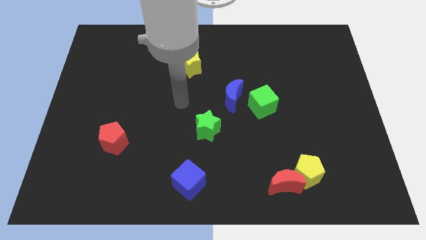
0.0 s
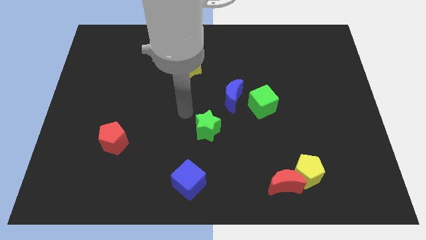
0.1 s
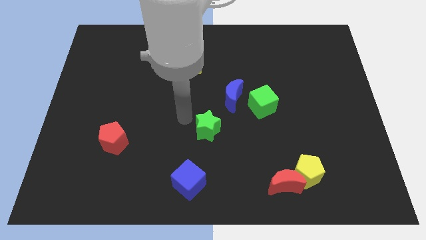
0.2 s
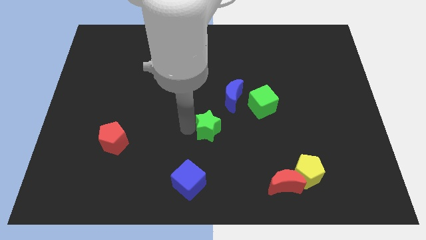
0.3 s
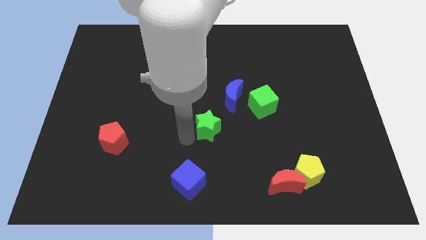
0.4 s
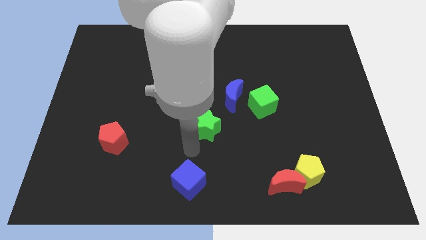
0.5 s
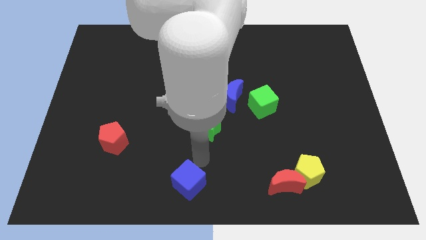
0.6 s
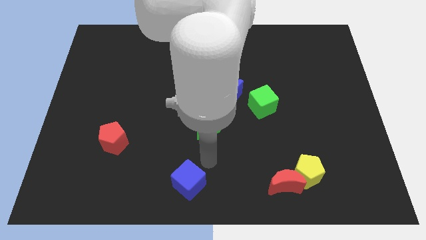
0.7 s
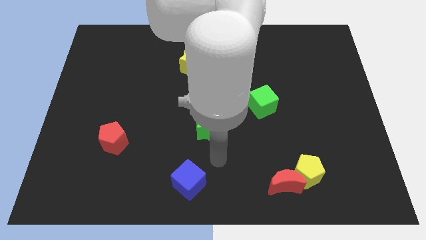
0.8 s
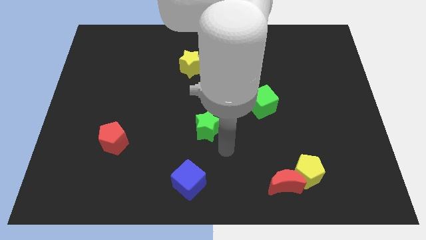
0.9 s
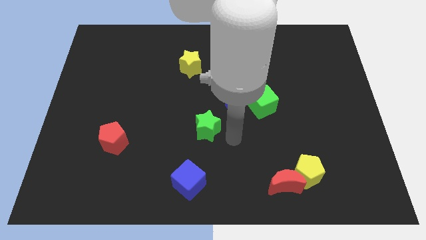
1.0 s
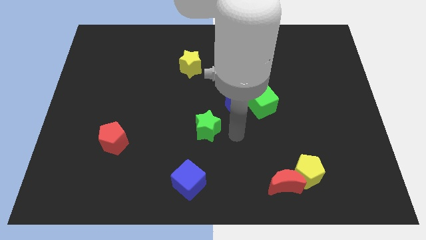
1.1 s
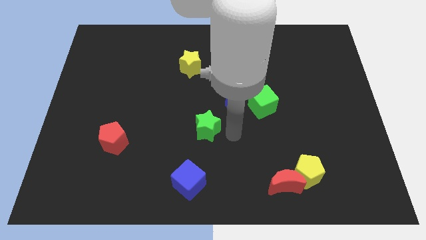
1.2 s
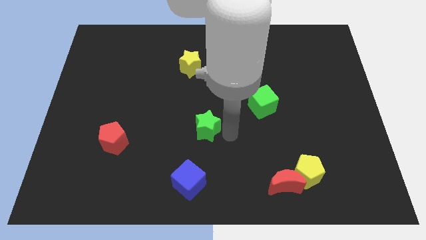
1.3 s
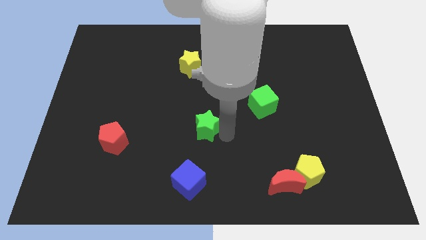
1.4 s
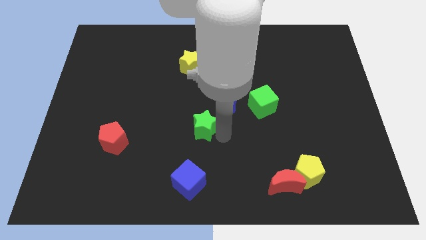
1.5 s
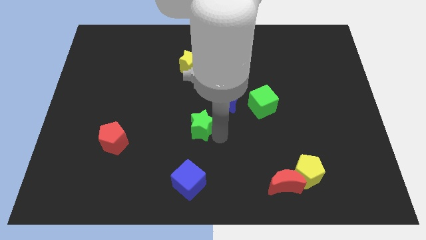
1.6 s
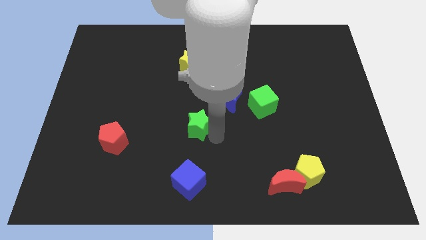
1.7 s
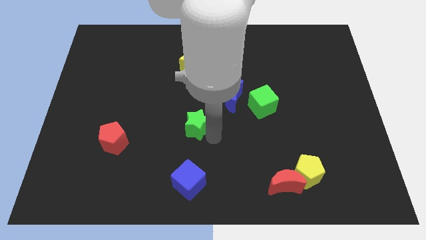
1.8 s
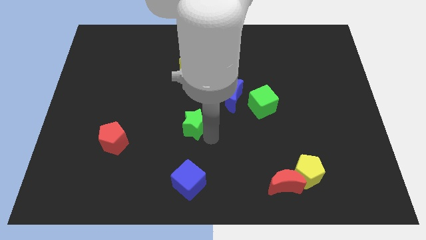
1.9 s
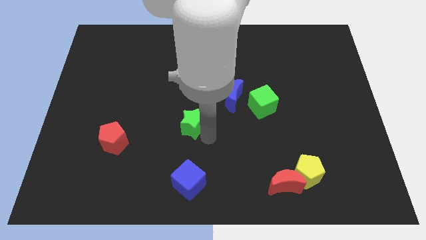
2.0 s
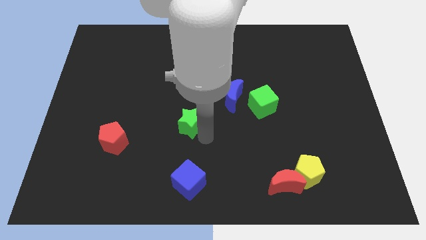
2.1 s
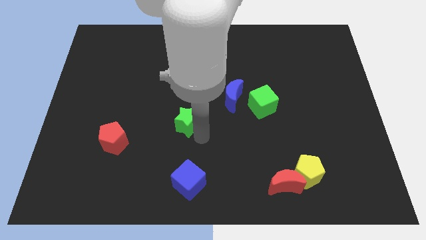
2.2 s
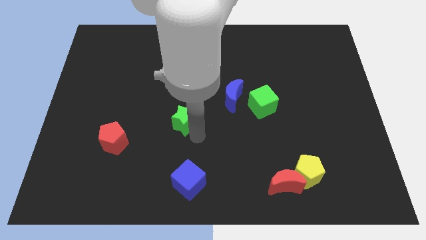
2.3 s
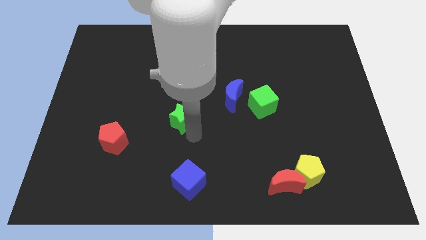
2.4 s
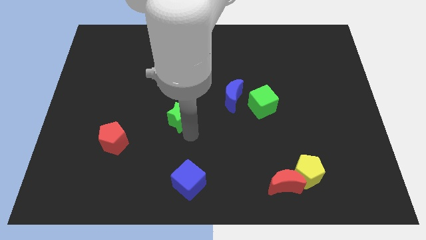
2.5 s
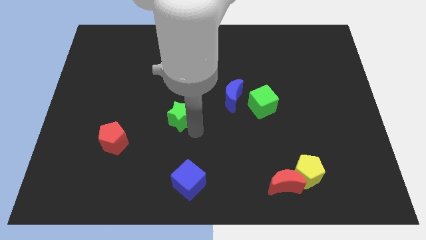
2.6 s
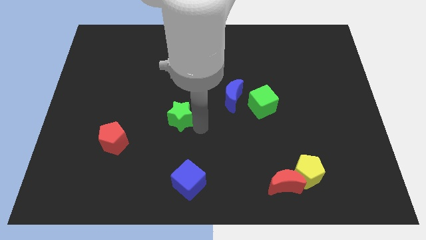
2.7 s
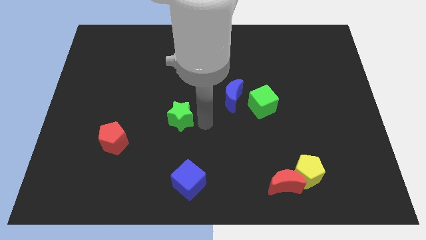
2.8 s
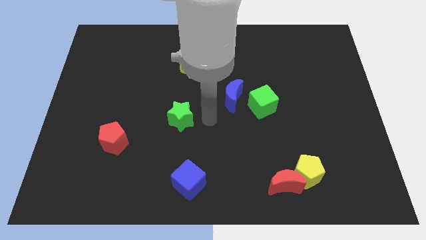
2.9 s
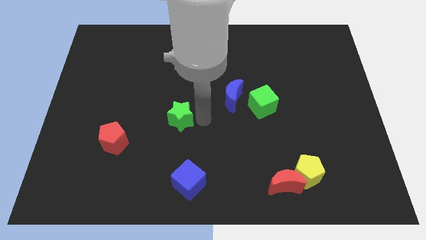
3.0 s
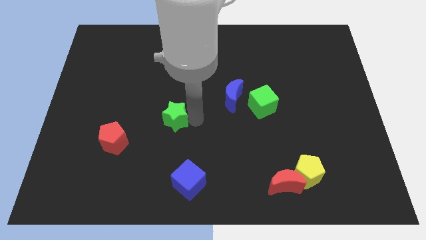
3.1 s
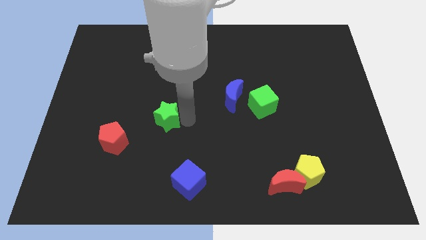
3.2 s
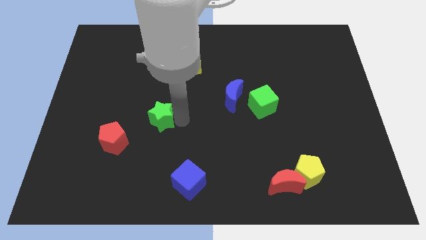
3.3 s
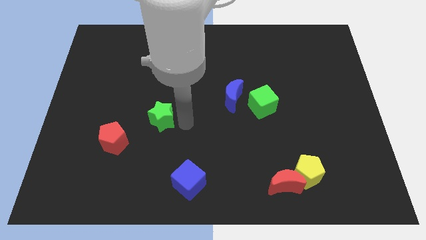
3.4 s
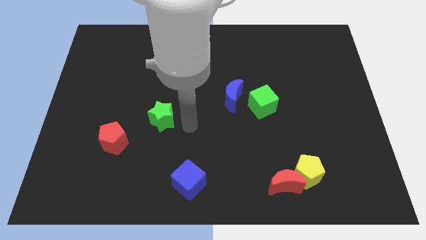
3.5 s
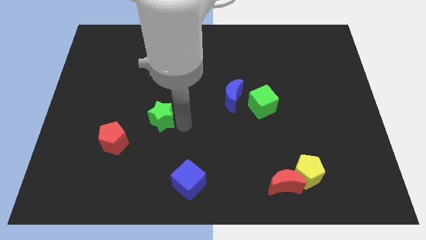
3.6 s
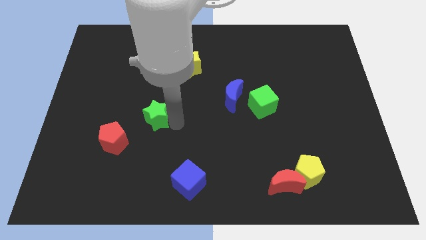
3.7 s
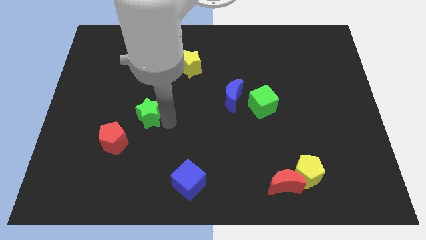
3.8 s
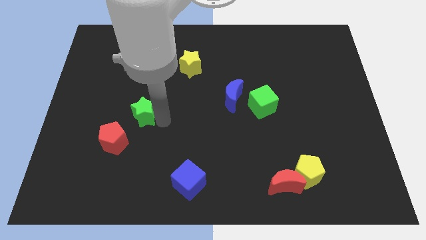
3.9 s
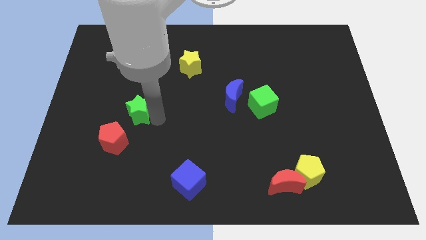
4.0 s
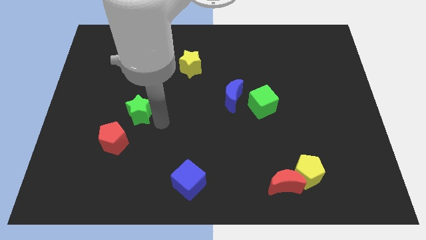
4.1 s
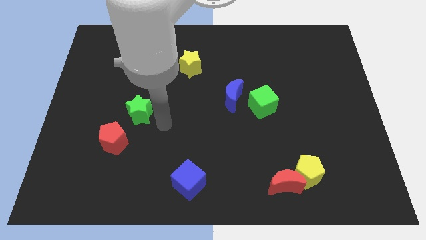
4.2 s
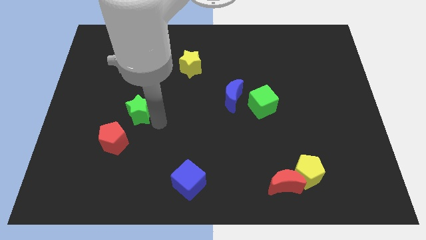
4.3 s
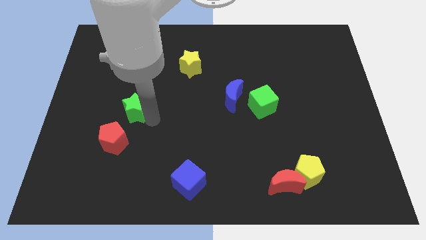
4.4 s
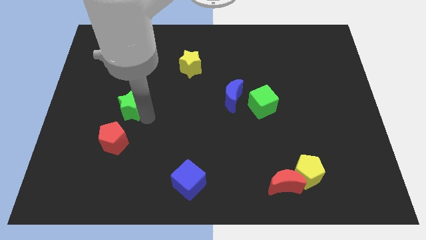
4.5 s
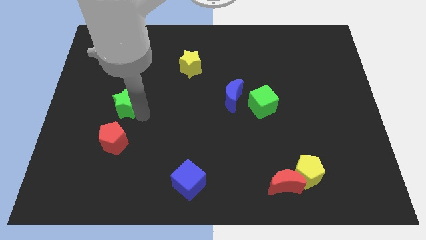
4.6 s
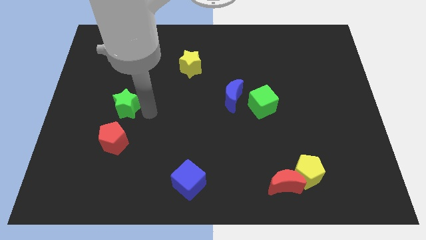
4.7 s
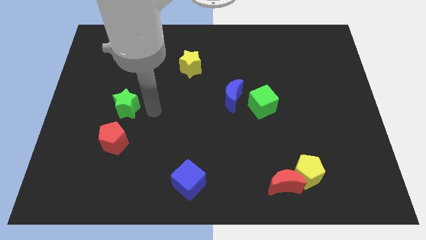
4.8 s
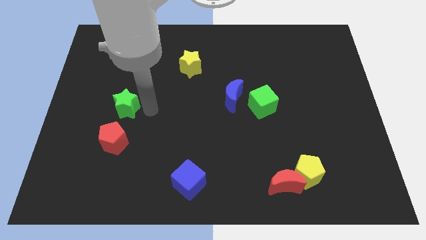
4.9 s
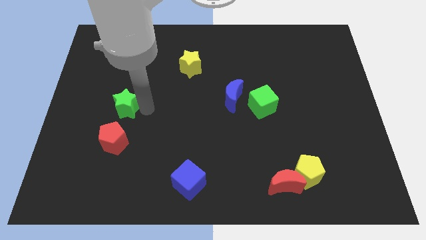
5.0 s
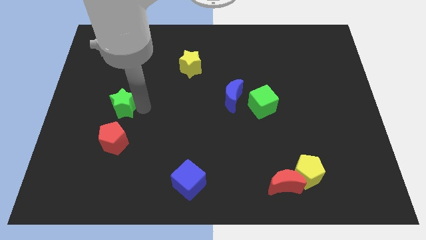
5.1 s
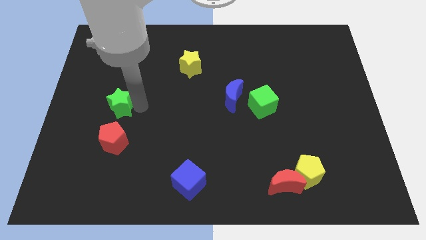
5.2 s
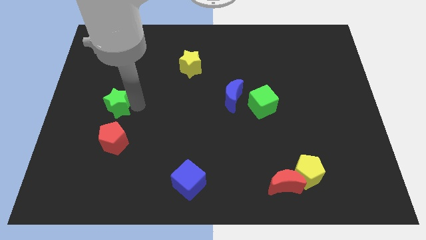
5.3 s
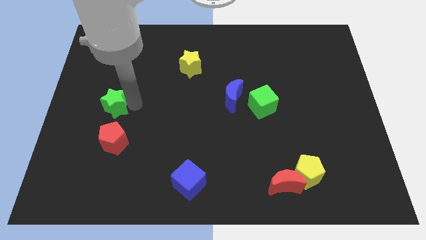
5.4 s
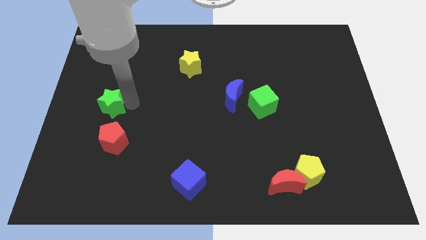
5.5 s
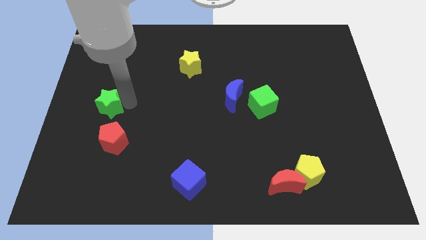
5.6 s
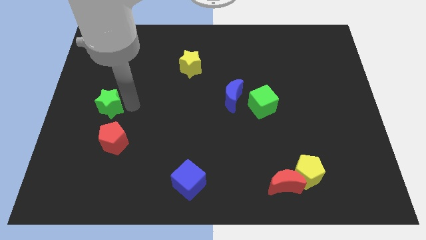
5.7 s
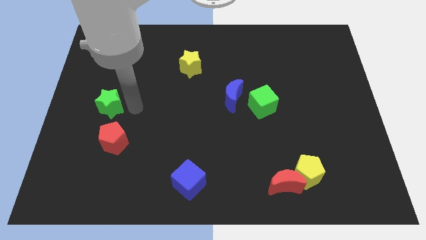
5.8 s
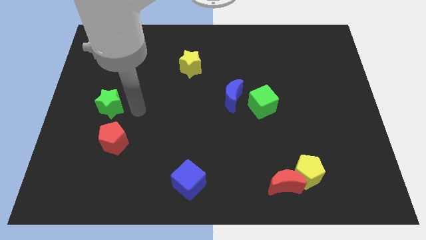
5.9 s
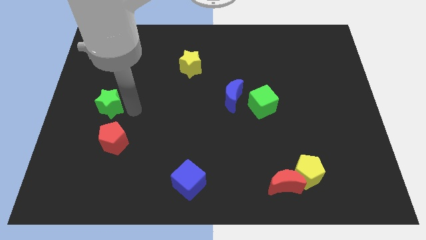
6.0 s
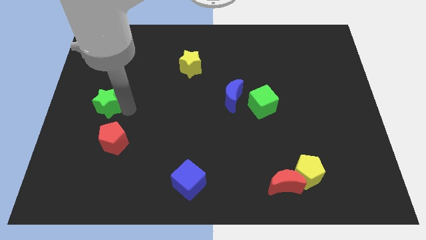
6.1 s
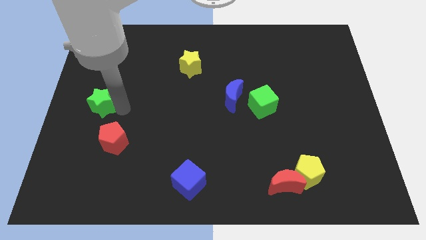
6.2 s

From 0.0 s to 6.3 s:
put the green star to the left side
